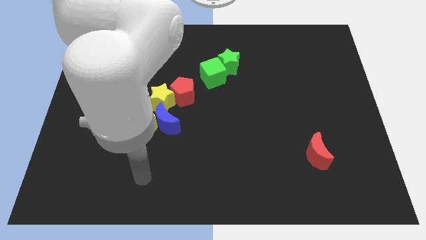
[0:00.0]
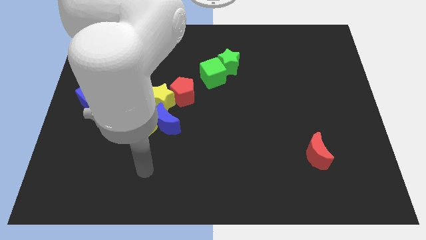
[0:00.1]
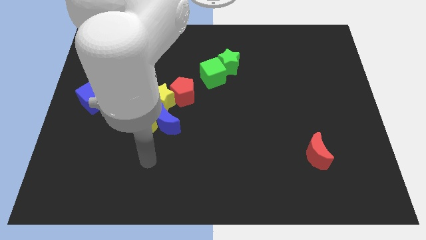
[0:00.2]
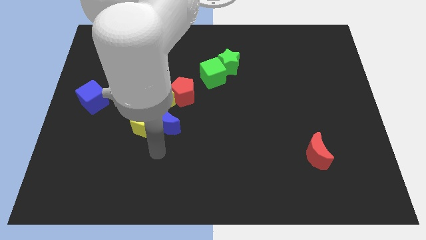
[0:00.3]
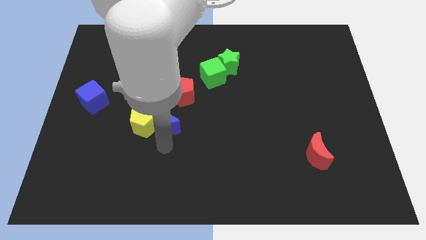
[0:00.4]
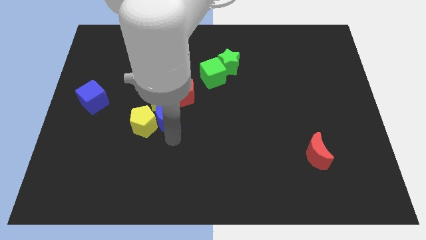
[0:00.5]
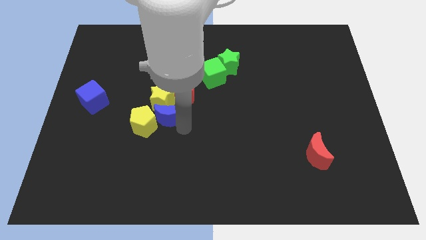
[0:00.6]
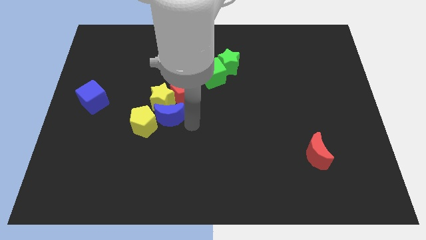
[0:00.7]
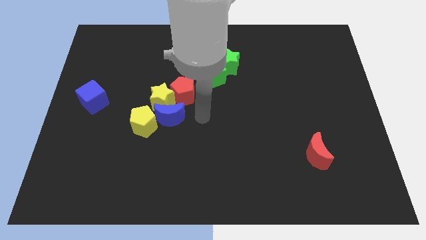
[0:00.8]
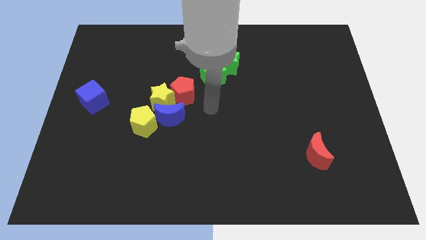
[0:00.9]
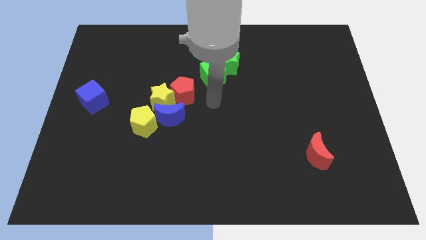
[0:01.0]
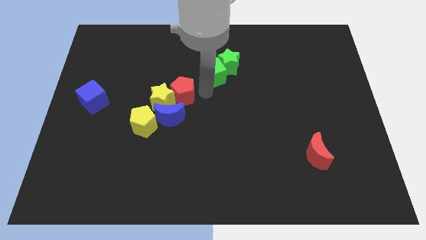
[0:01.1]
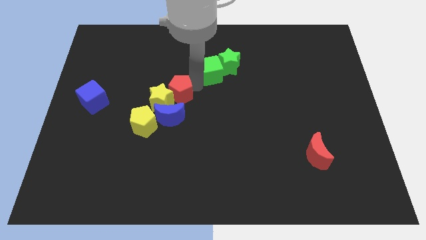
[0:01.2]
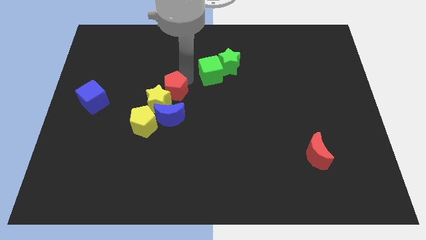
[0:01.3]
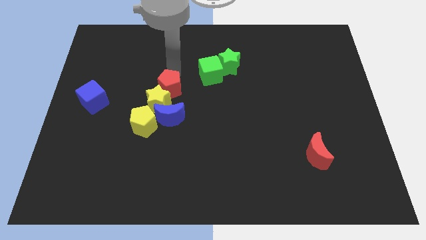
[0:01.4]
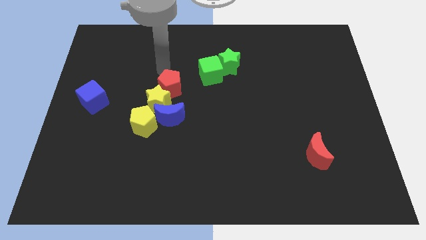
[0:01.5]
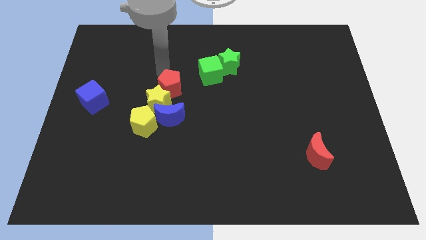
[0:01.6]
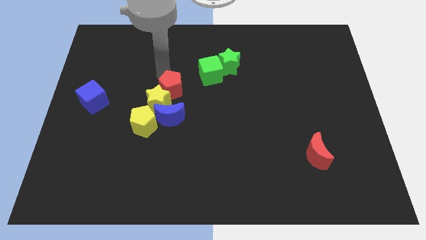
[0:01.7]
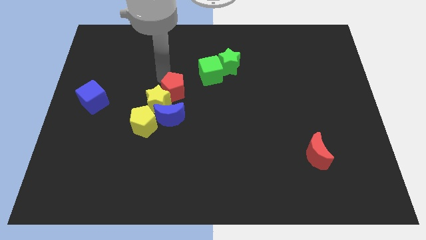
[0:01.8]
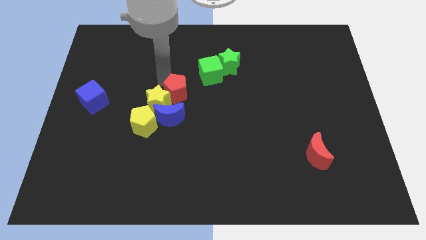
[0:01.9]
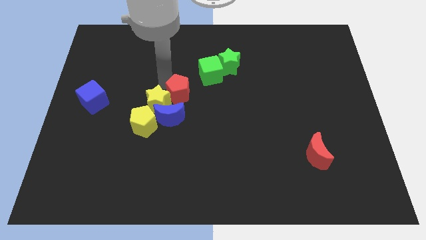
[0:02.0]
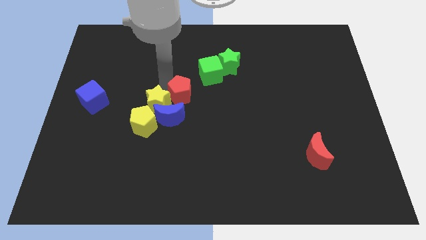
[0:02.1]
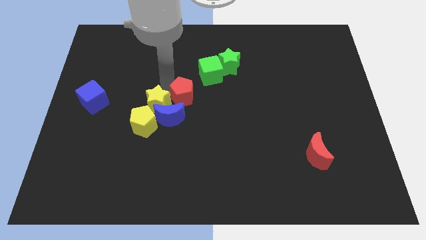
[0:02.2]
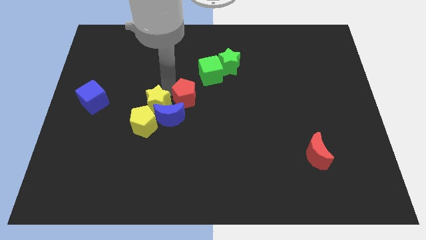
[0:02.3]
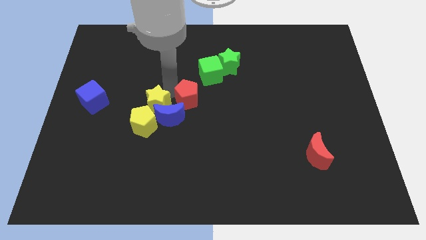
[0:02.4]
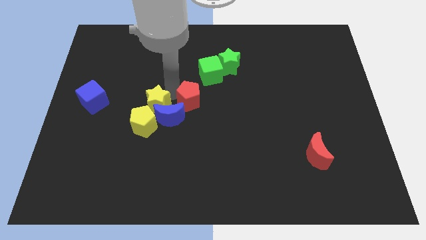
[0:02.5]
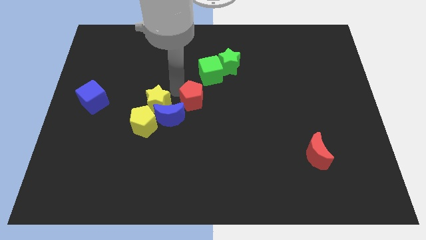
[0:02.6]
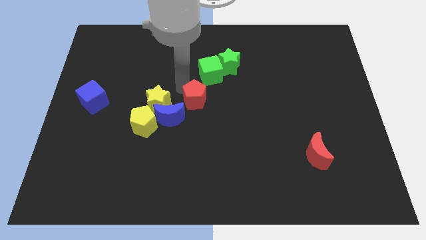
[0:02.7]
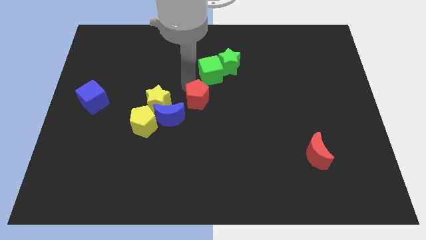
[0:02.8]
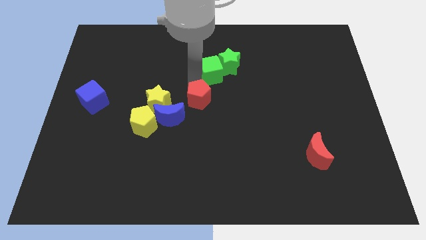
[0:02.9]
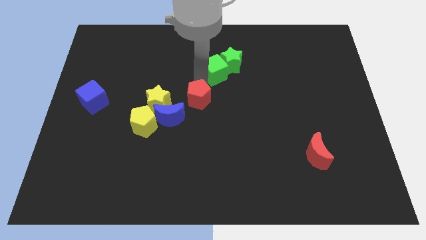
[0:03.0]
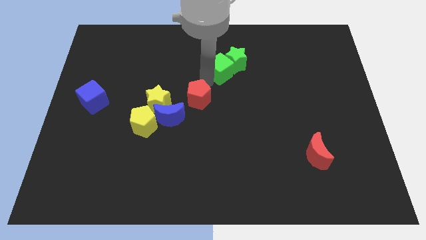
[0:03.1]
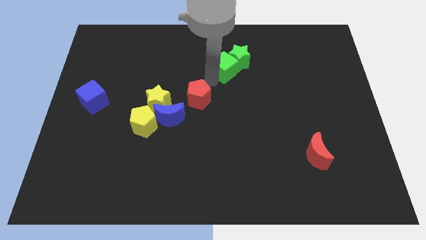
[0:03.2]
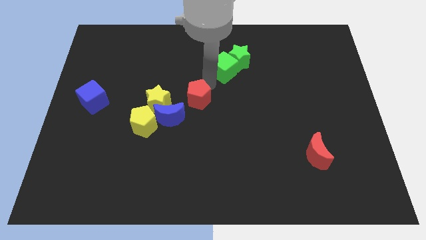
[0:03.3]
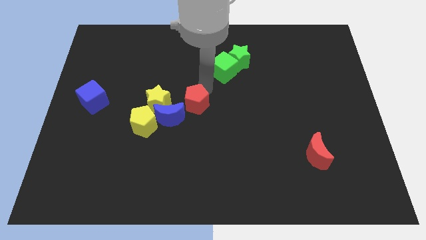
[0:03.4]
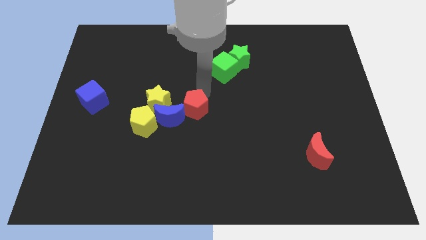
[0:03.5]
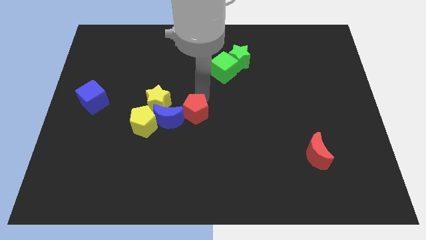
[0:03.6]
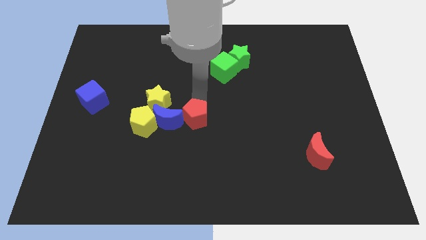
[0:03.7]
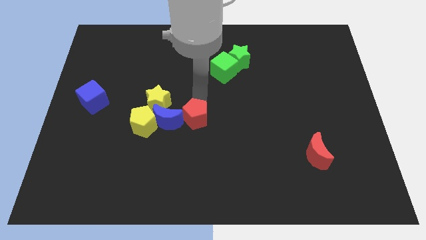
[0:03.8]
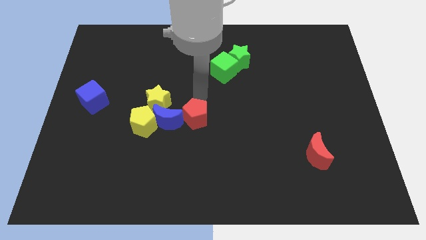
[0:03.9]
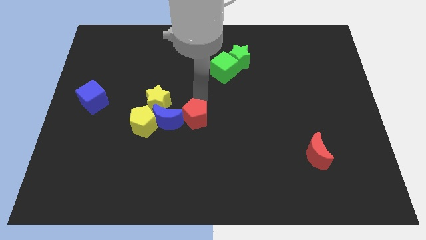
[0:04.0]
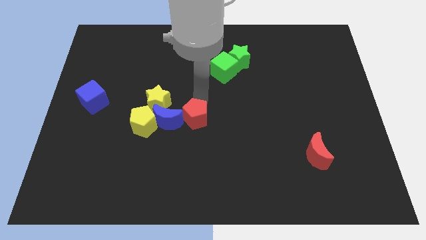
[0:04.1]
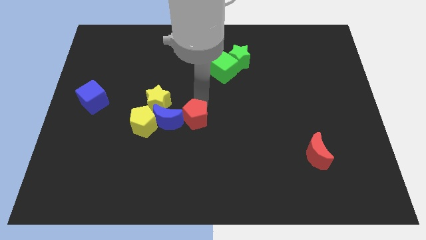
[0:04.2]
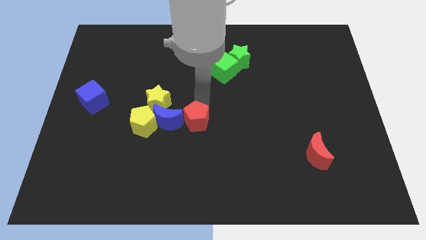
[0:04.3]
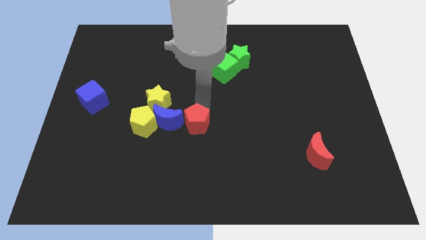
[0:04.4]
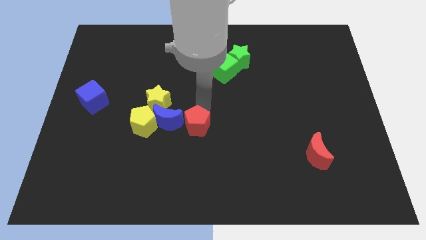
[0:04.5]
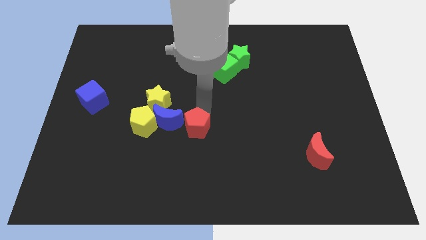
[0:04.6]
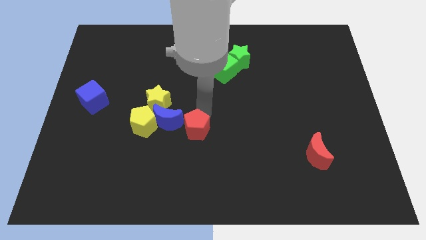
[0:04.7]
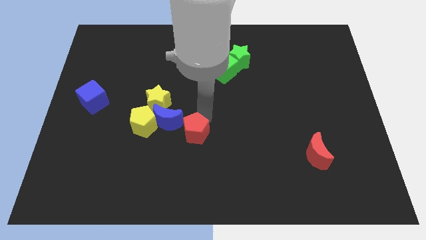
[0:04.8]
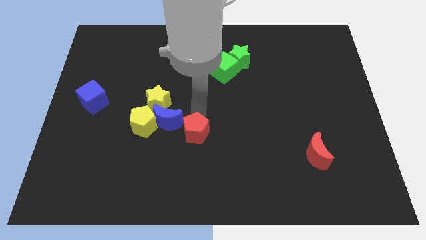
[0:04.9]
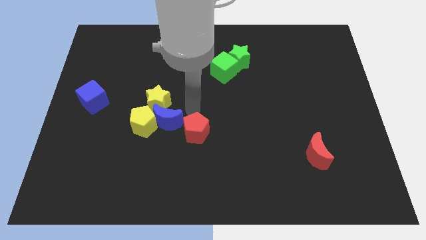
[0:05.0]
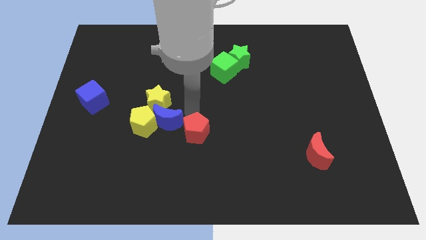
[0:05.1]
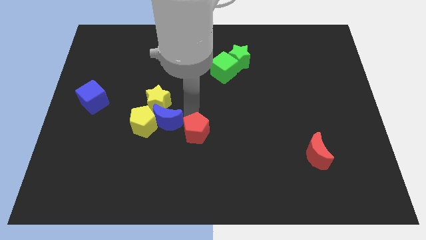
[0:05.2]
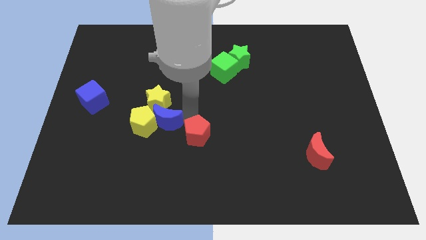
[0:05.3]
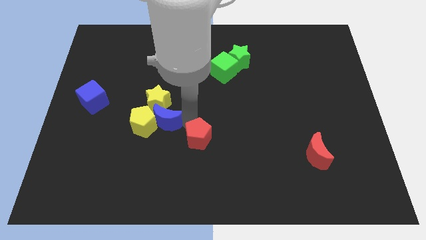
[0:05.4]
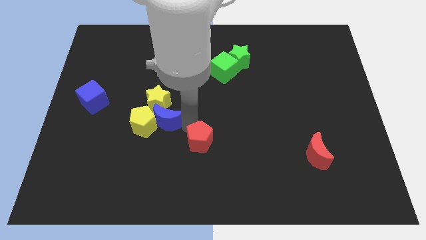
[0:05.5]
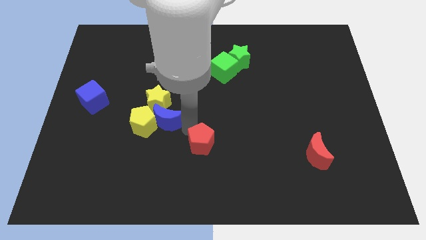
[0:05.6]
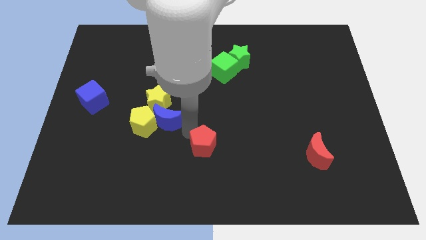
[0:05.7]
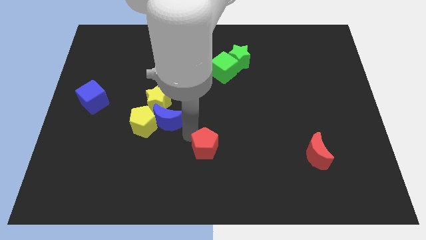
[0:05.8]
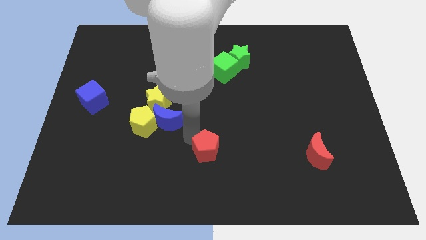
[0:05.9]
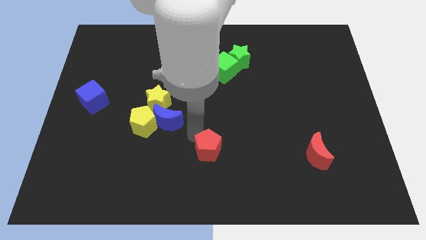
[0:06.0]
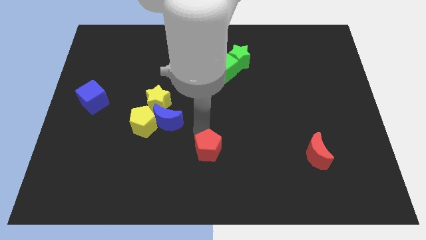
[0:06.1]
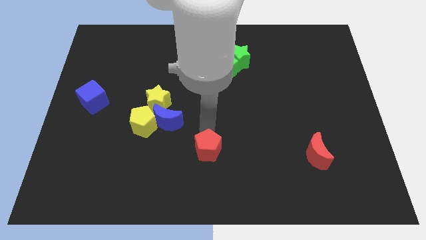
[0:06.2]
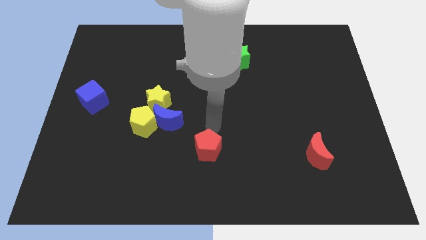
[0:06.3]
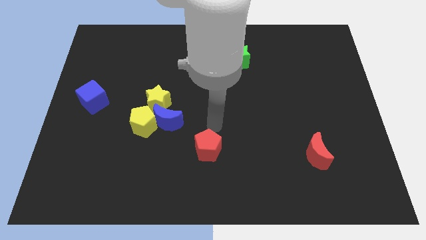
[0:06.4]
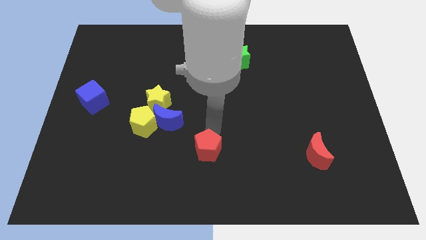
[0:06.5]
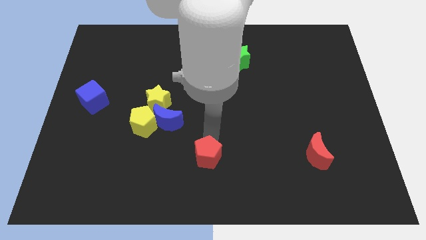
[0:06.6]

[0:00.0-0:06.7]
put the red pentagon to the bottom
